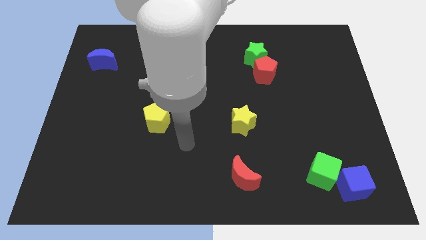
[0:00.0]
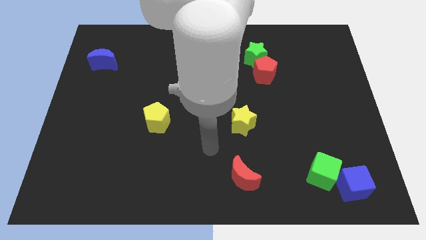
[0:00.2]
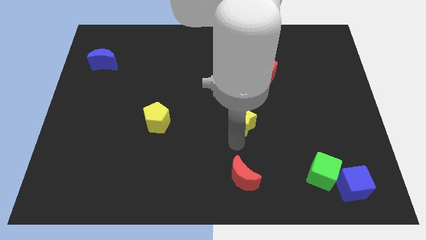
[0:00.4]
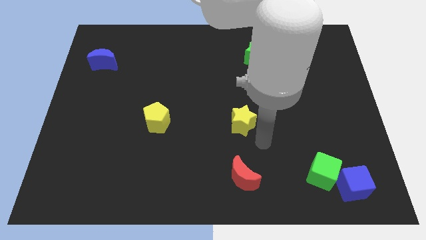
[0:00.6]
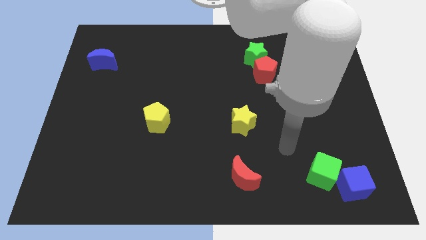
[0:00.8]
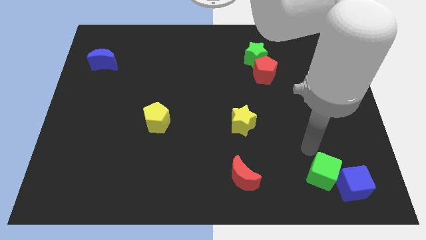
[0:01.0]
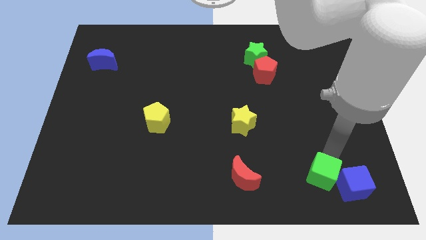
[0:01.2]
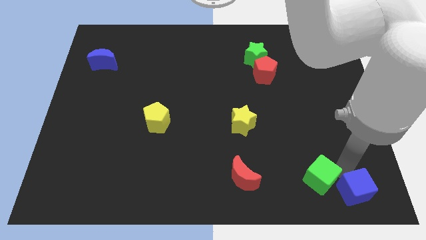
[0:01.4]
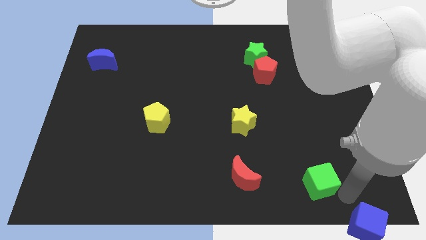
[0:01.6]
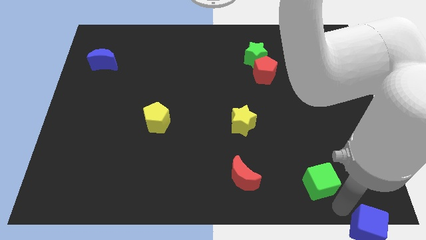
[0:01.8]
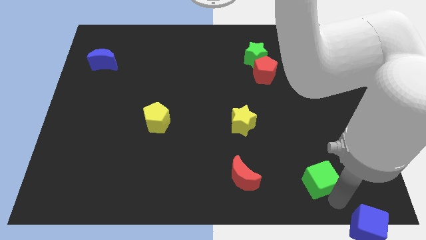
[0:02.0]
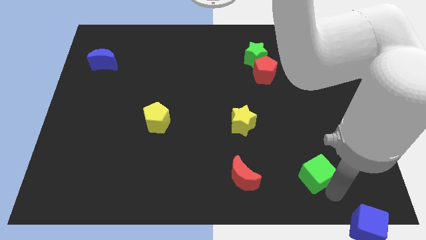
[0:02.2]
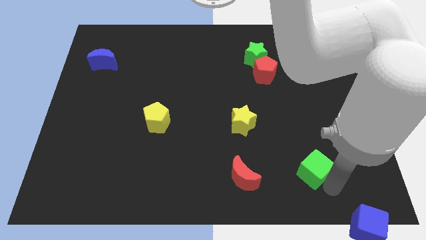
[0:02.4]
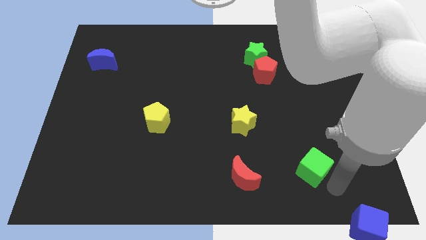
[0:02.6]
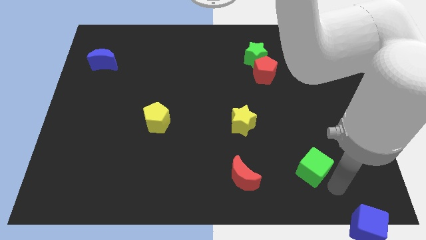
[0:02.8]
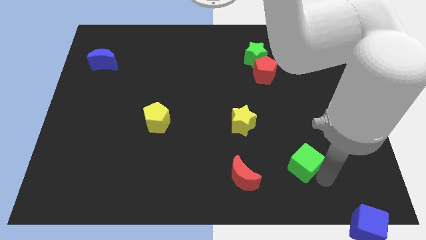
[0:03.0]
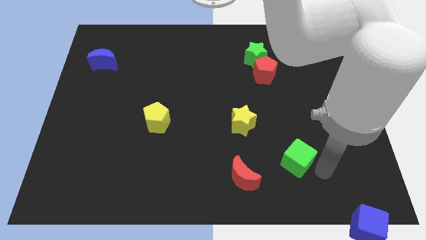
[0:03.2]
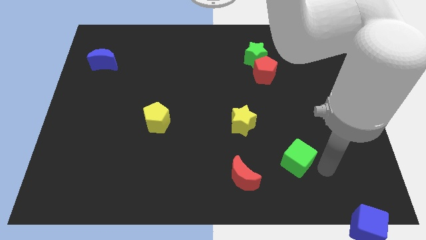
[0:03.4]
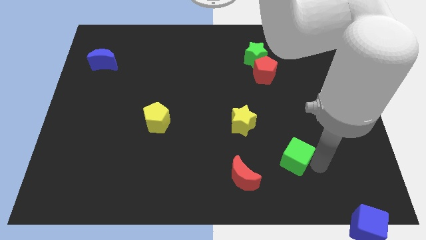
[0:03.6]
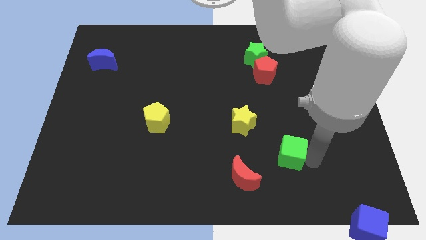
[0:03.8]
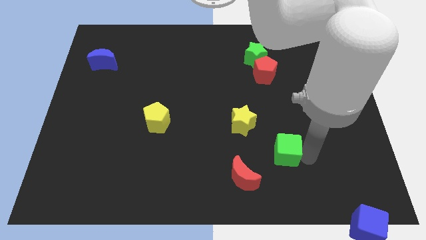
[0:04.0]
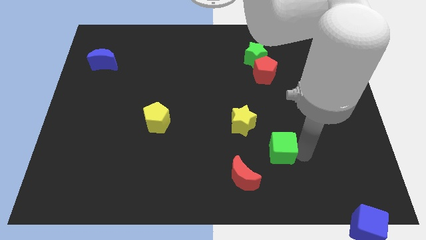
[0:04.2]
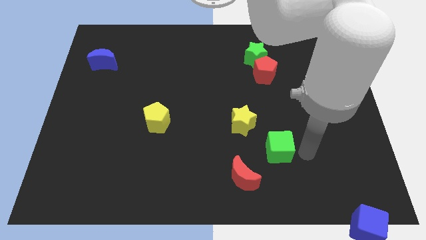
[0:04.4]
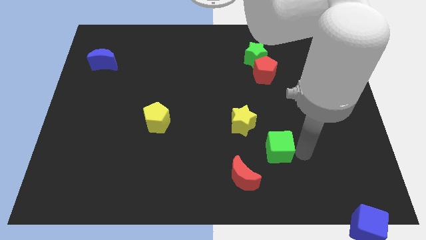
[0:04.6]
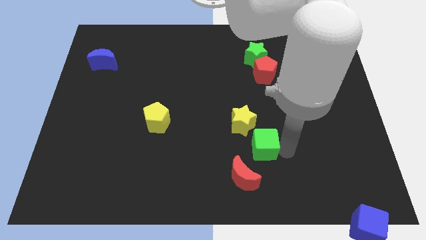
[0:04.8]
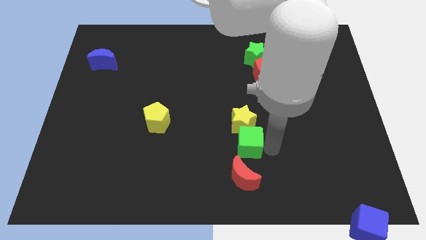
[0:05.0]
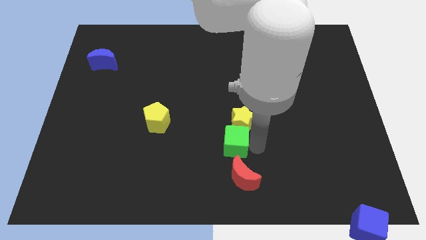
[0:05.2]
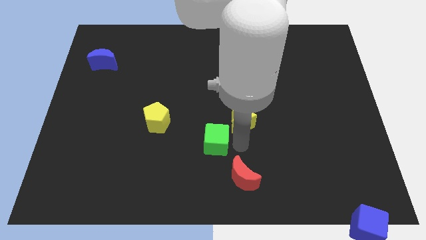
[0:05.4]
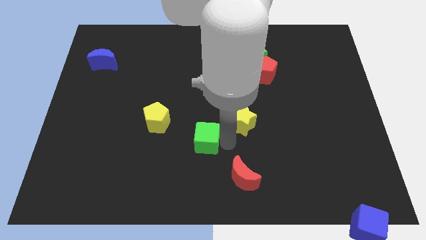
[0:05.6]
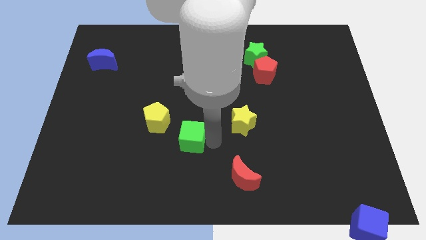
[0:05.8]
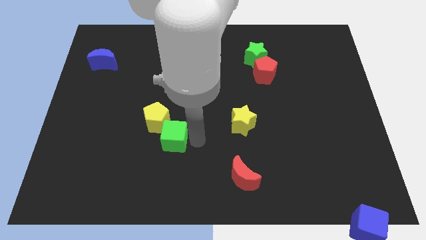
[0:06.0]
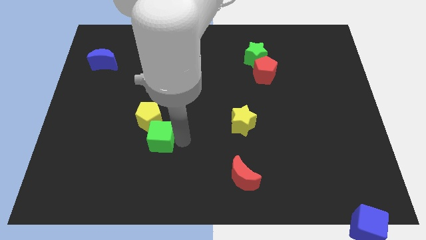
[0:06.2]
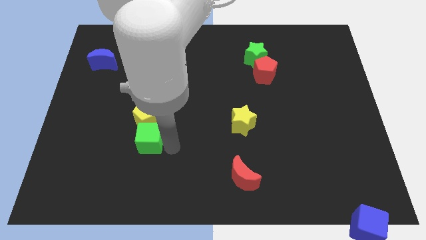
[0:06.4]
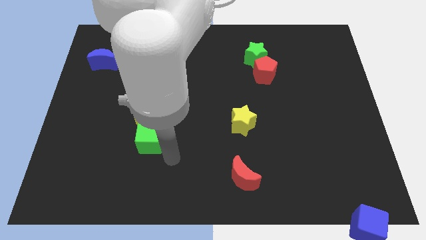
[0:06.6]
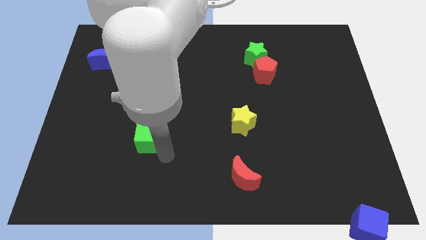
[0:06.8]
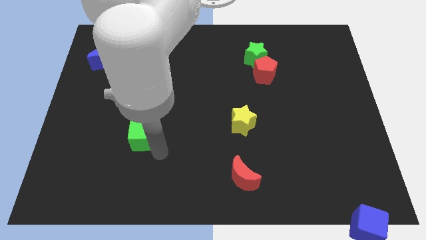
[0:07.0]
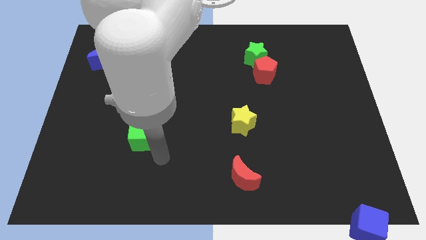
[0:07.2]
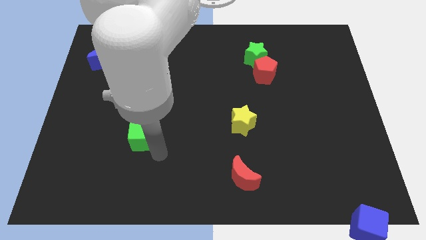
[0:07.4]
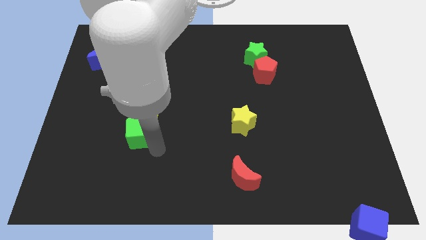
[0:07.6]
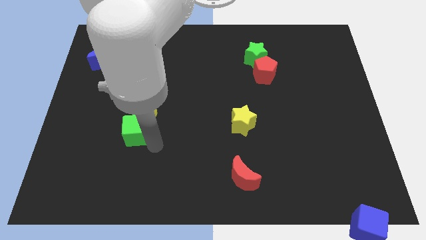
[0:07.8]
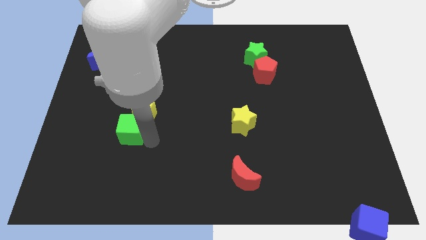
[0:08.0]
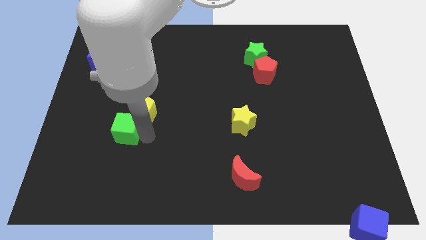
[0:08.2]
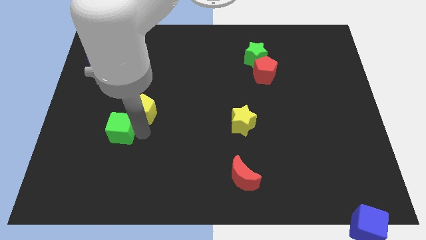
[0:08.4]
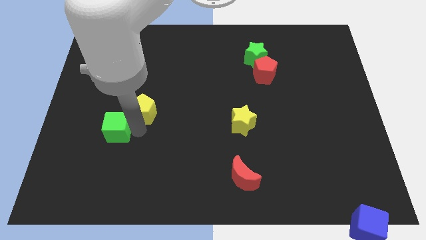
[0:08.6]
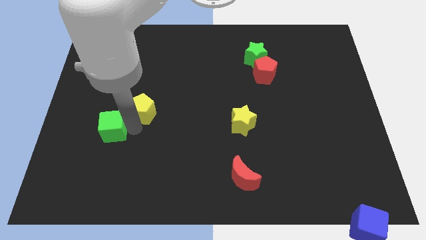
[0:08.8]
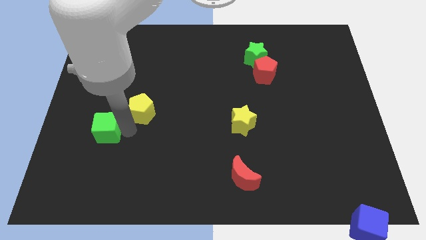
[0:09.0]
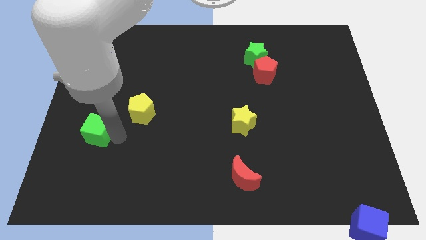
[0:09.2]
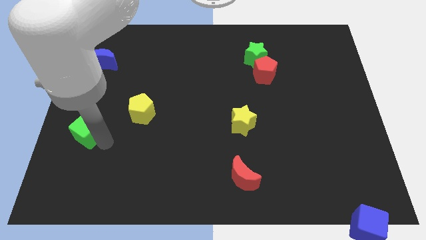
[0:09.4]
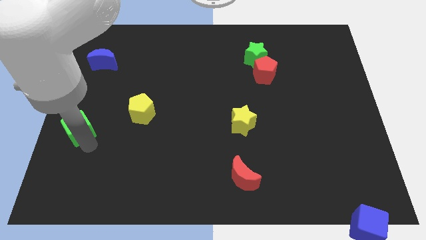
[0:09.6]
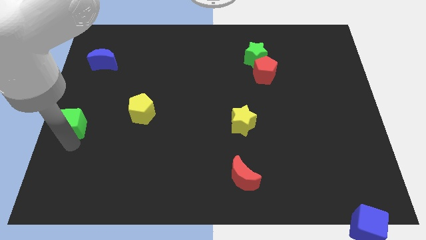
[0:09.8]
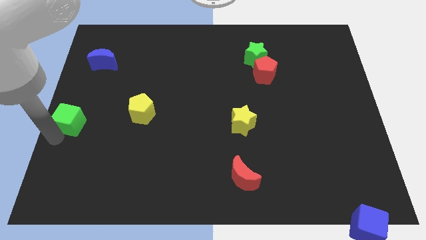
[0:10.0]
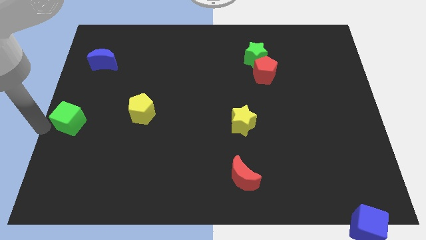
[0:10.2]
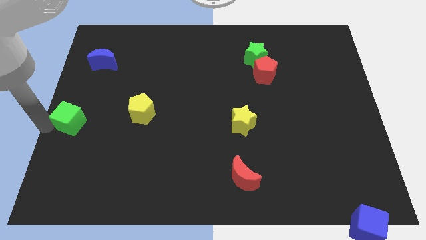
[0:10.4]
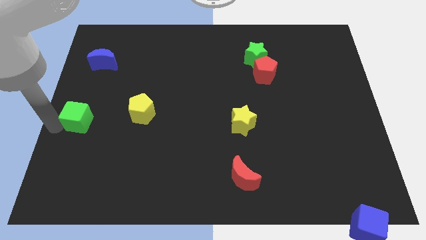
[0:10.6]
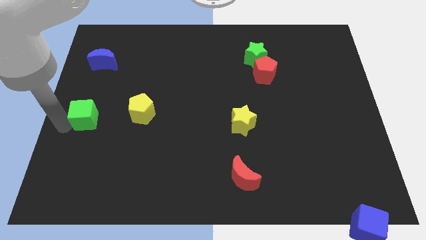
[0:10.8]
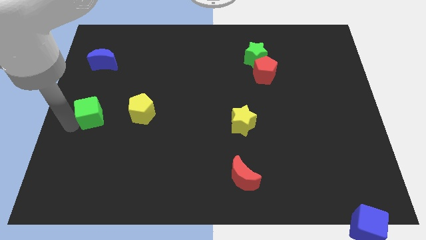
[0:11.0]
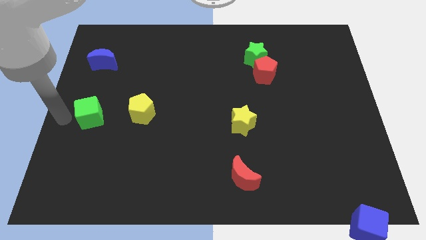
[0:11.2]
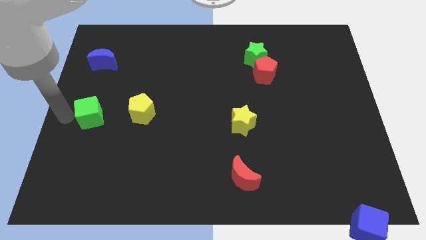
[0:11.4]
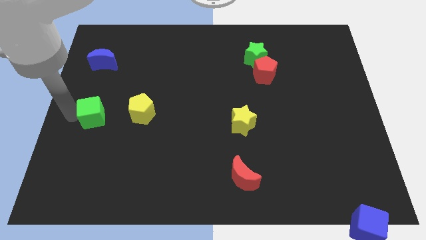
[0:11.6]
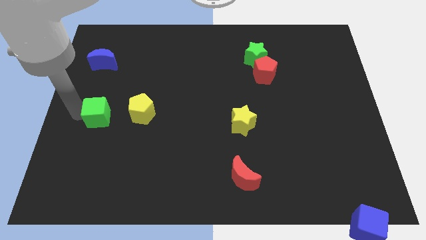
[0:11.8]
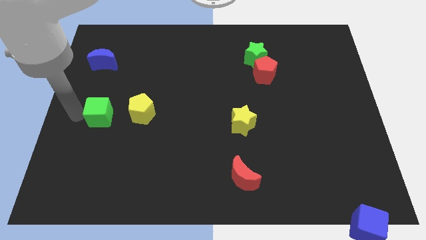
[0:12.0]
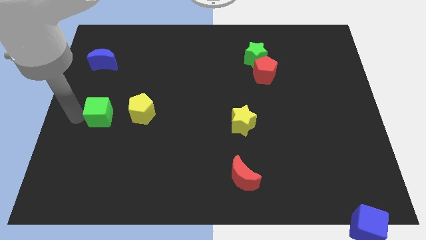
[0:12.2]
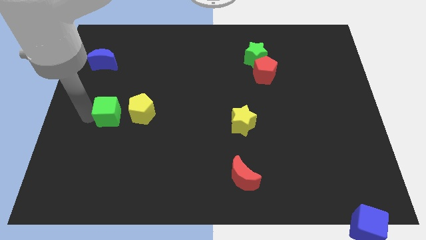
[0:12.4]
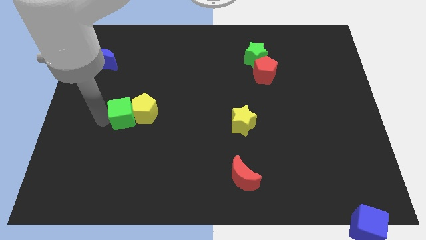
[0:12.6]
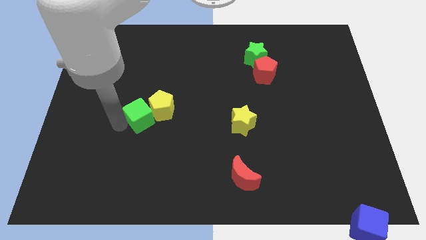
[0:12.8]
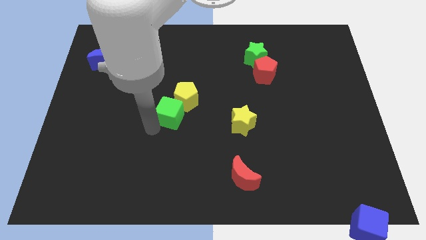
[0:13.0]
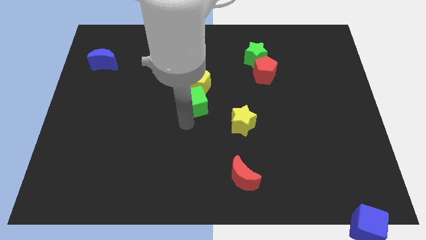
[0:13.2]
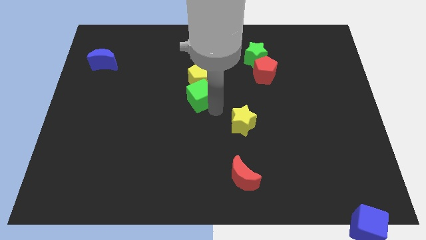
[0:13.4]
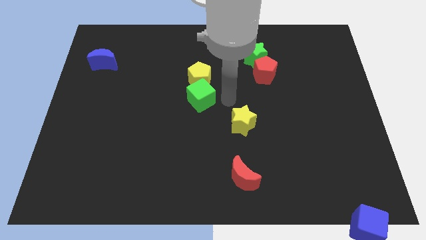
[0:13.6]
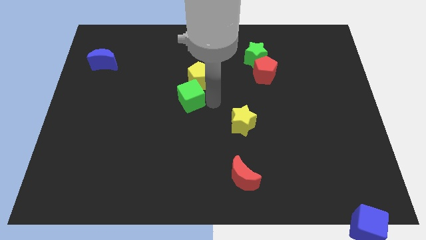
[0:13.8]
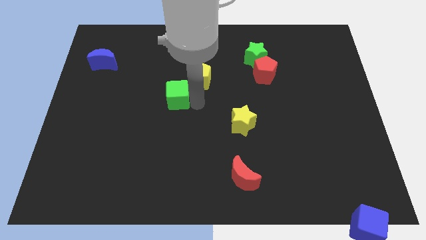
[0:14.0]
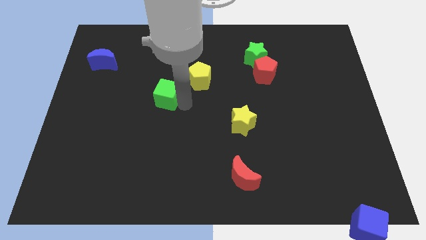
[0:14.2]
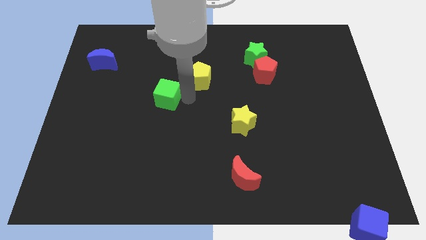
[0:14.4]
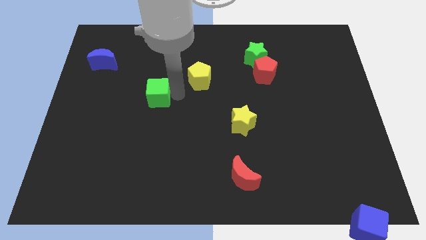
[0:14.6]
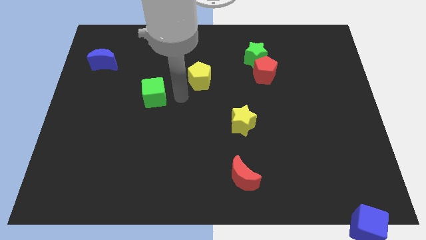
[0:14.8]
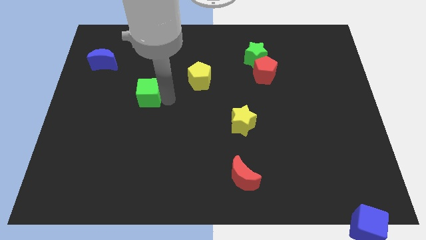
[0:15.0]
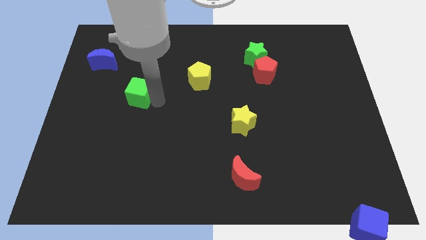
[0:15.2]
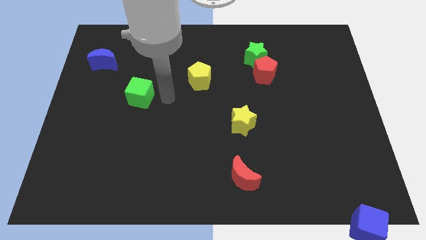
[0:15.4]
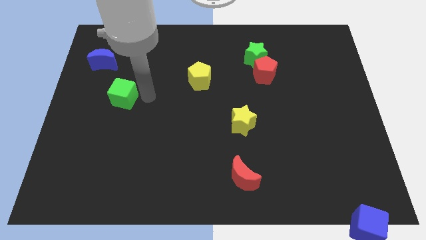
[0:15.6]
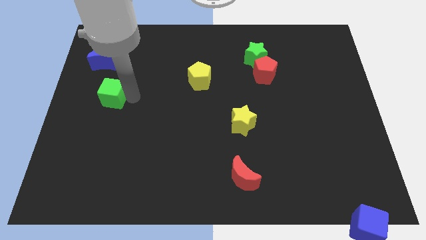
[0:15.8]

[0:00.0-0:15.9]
put the green cube to the bottom side of the blue moon
